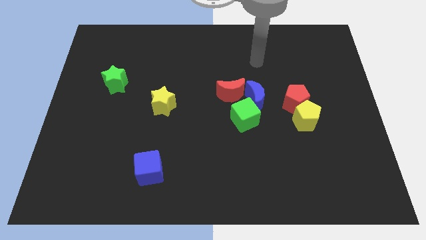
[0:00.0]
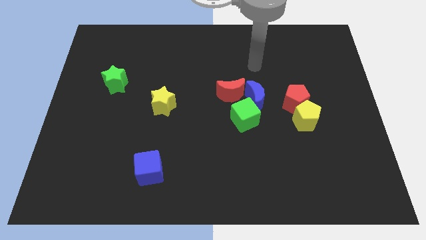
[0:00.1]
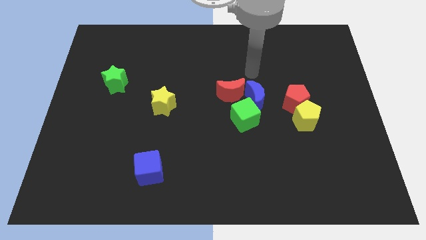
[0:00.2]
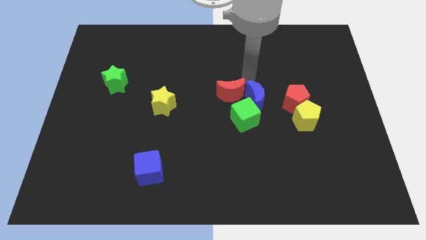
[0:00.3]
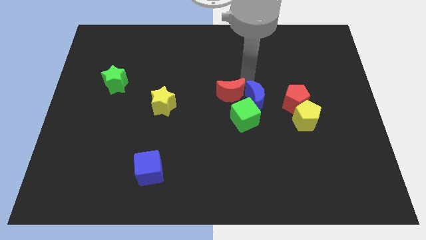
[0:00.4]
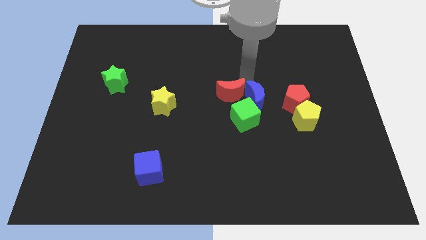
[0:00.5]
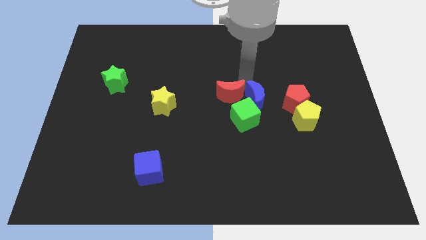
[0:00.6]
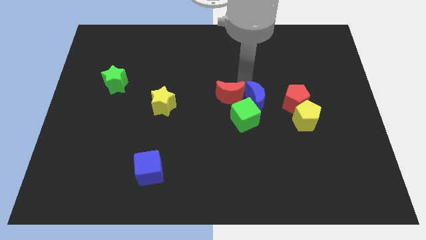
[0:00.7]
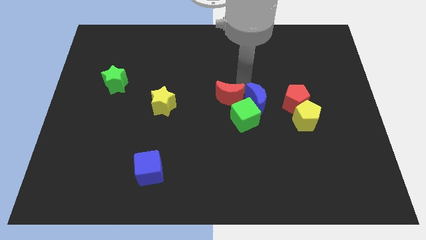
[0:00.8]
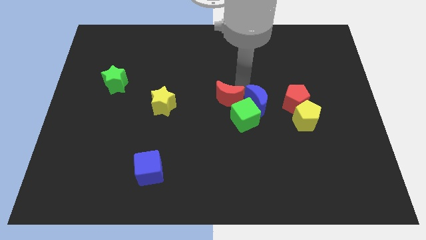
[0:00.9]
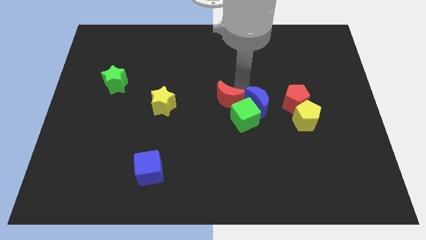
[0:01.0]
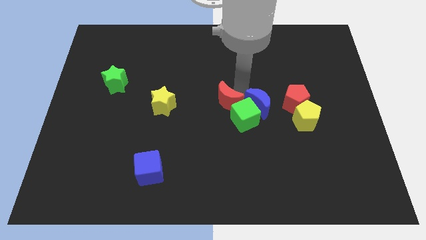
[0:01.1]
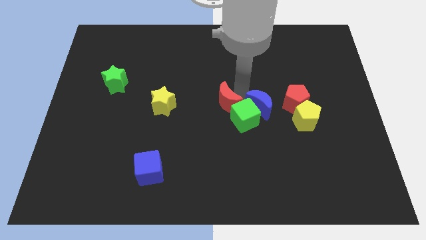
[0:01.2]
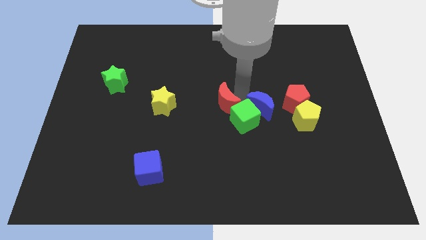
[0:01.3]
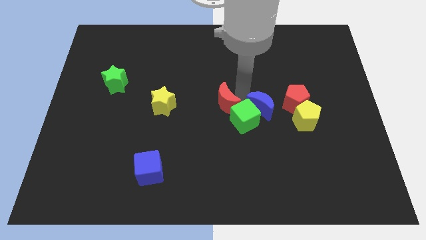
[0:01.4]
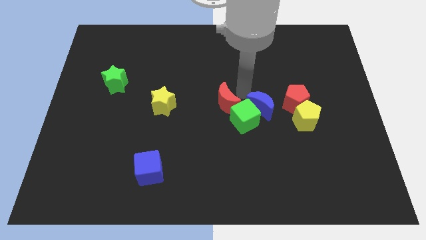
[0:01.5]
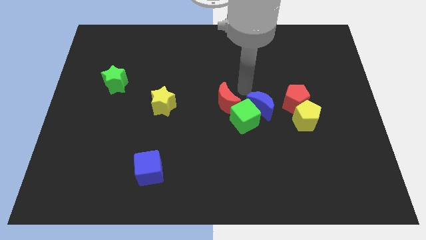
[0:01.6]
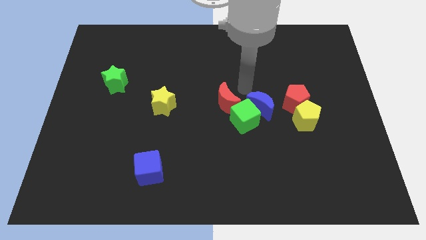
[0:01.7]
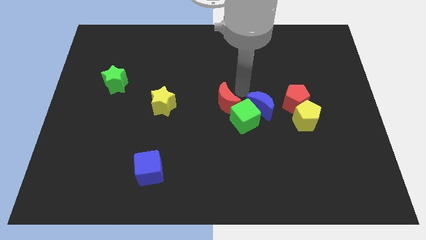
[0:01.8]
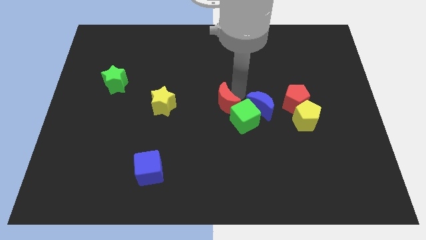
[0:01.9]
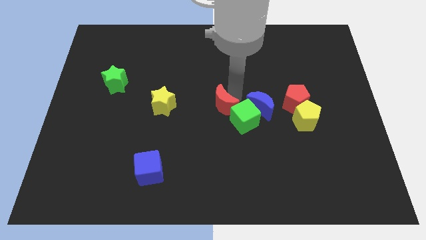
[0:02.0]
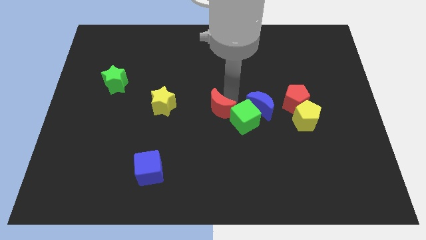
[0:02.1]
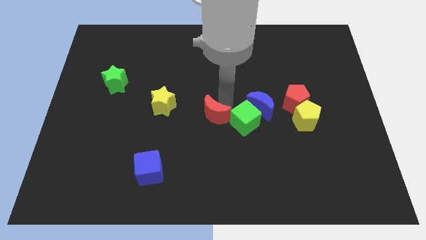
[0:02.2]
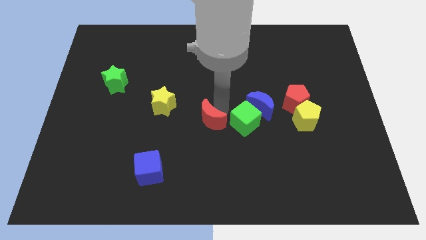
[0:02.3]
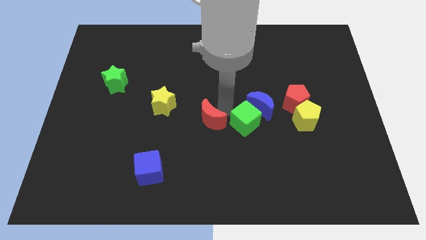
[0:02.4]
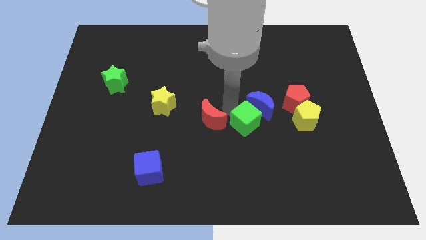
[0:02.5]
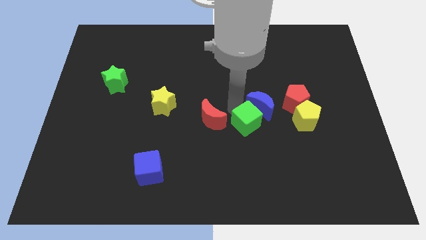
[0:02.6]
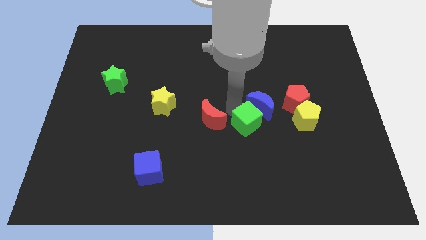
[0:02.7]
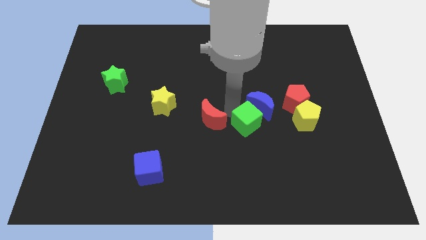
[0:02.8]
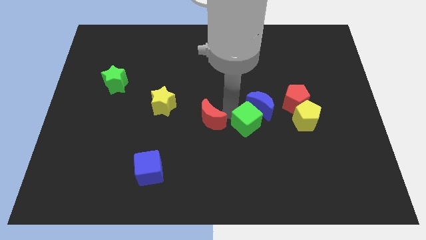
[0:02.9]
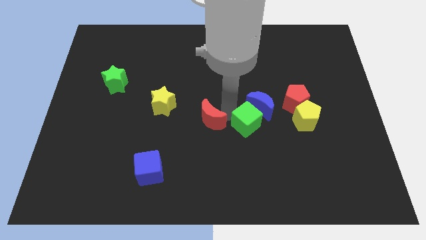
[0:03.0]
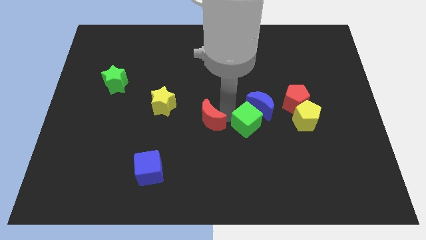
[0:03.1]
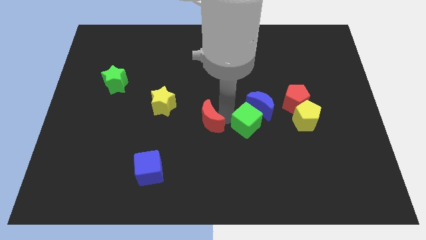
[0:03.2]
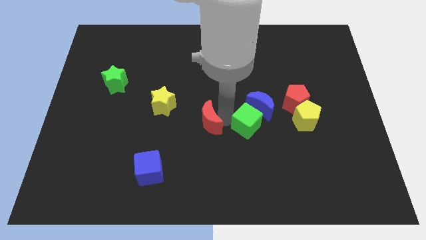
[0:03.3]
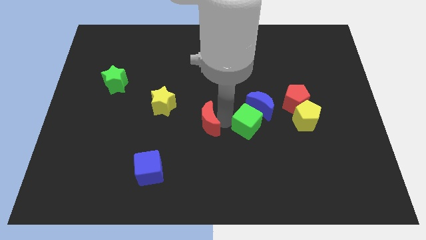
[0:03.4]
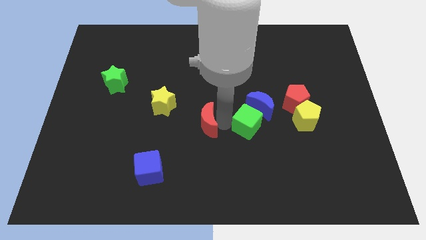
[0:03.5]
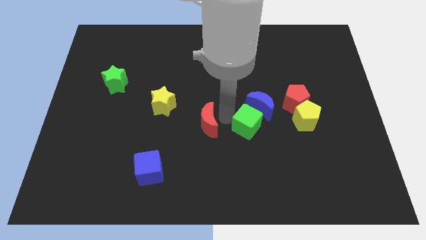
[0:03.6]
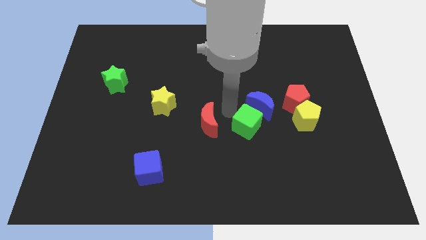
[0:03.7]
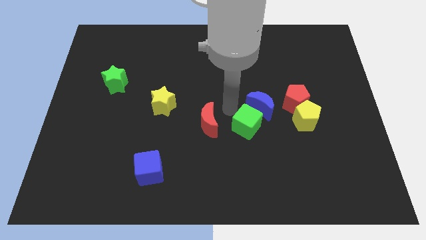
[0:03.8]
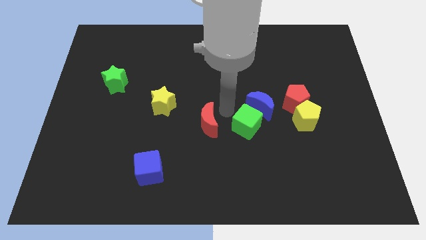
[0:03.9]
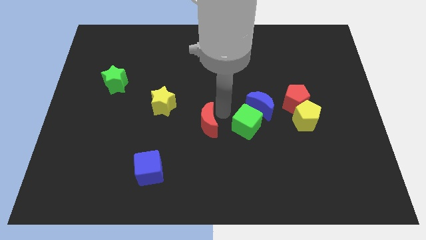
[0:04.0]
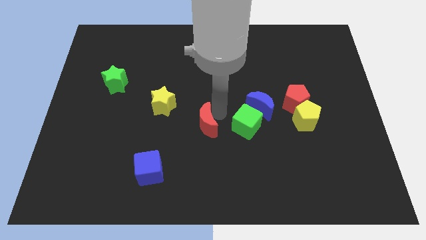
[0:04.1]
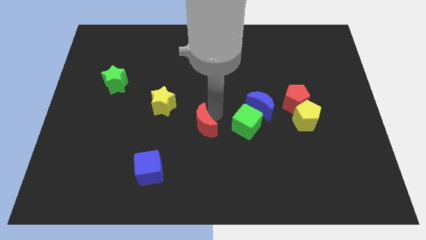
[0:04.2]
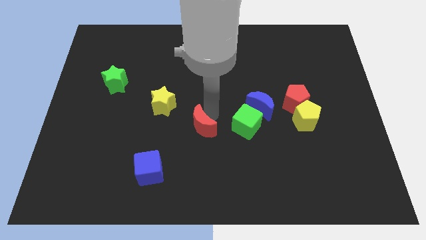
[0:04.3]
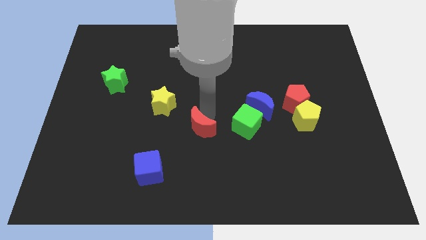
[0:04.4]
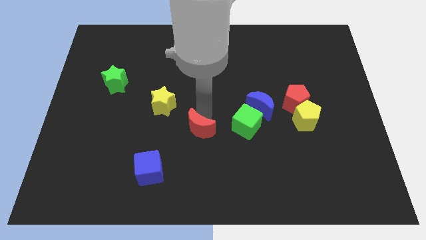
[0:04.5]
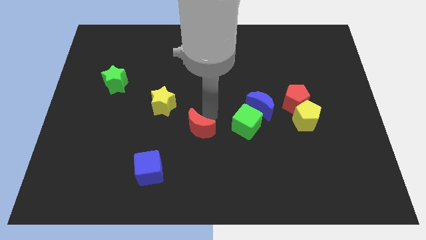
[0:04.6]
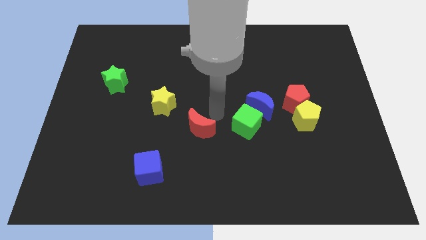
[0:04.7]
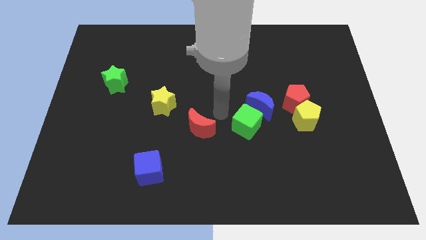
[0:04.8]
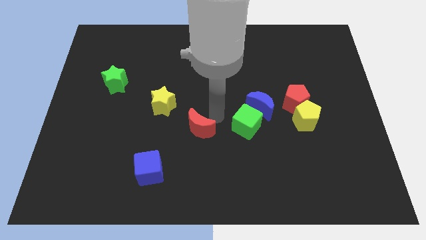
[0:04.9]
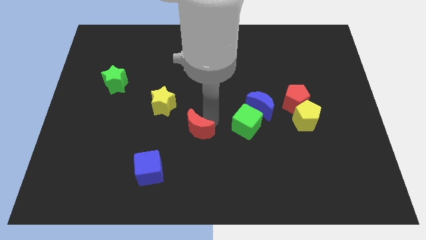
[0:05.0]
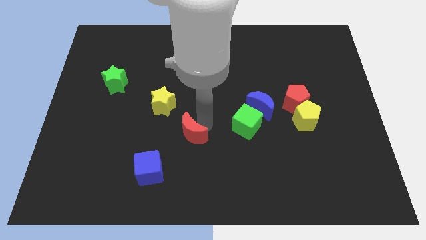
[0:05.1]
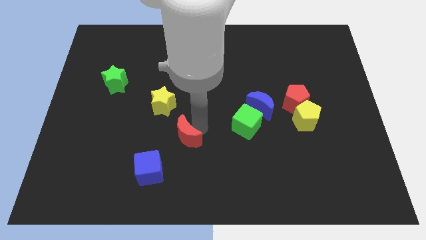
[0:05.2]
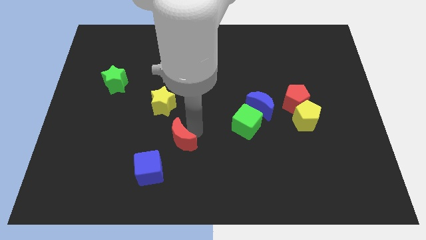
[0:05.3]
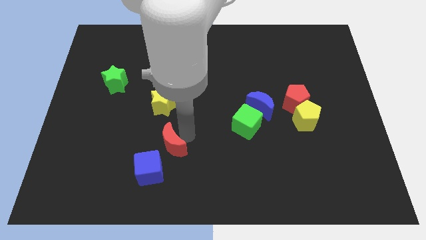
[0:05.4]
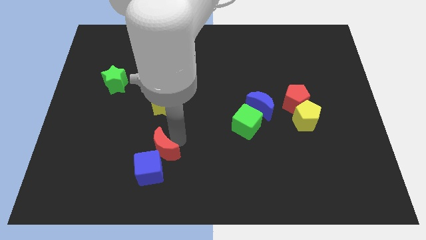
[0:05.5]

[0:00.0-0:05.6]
push the red moon next to the blue cube

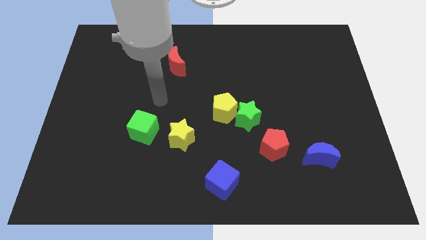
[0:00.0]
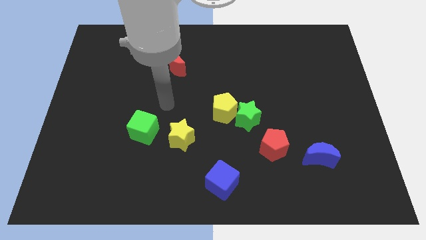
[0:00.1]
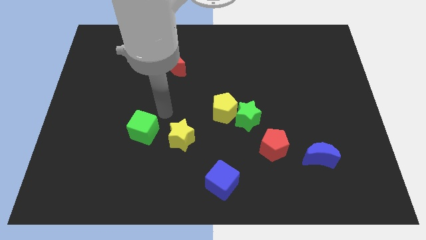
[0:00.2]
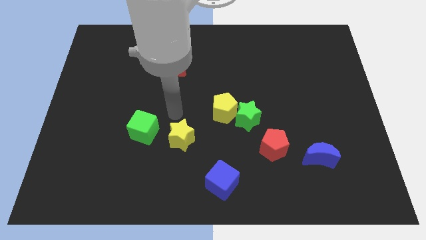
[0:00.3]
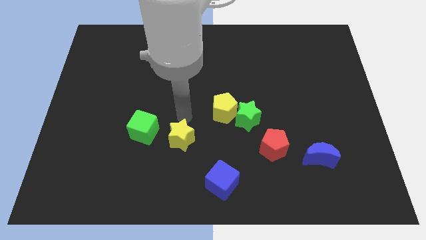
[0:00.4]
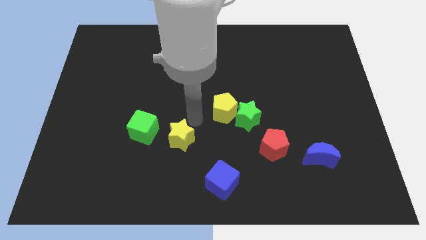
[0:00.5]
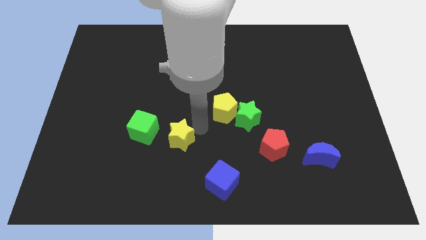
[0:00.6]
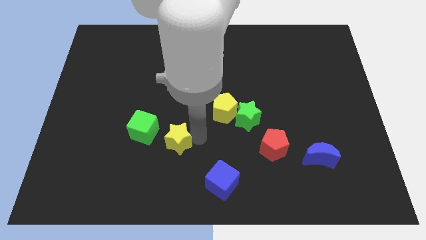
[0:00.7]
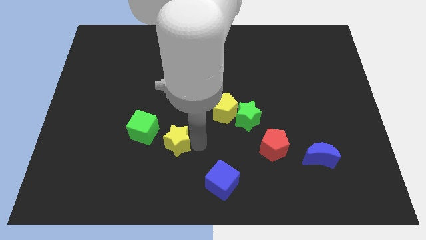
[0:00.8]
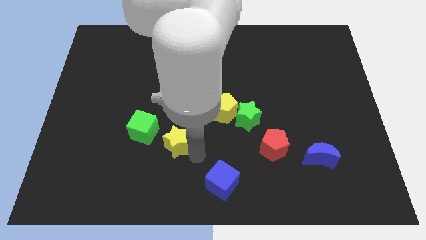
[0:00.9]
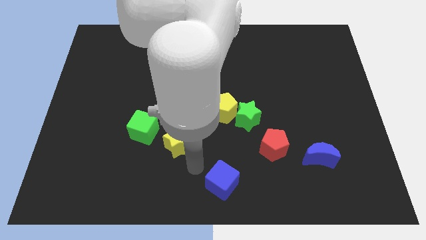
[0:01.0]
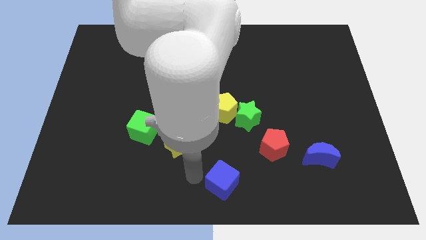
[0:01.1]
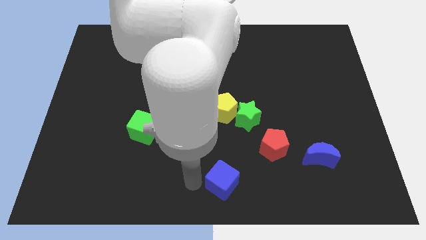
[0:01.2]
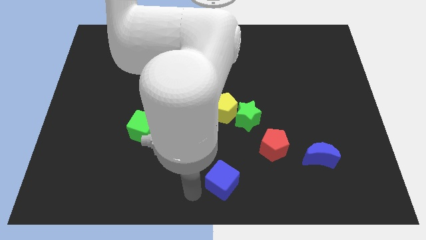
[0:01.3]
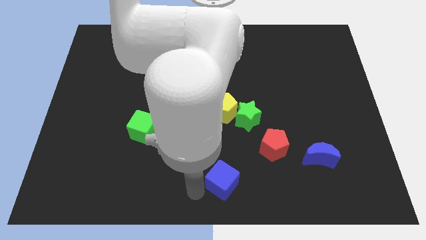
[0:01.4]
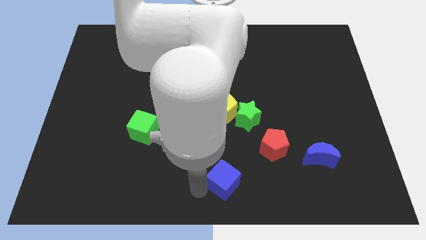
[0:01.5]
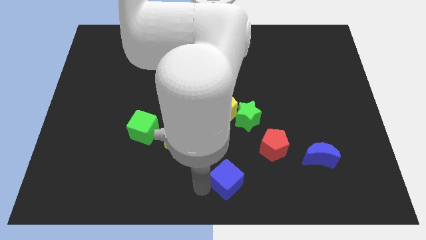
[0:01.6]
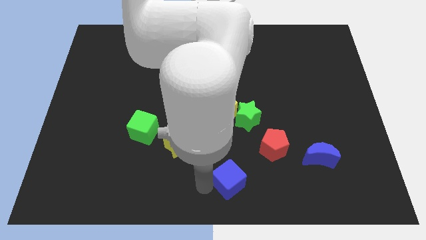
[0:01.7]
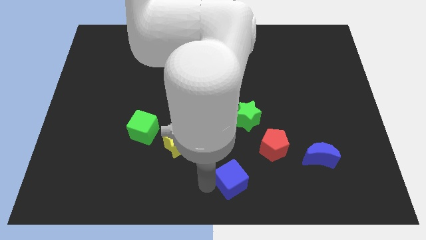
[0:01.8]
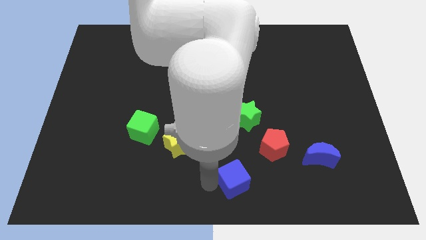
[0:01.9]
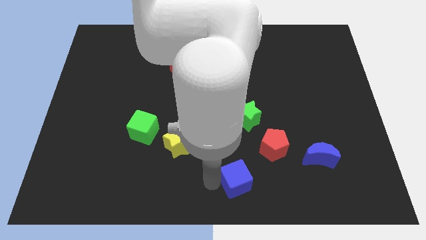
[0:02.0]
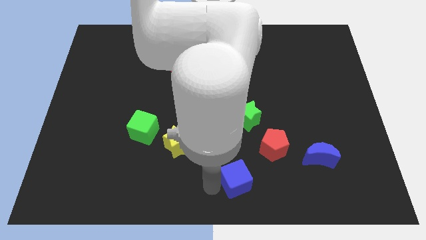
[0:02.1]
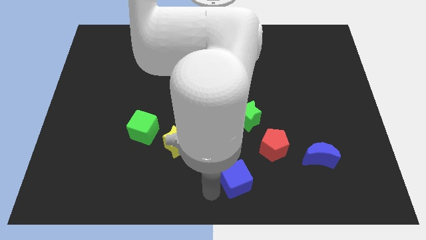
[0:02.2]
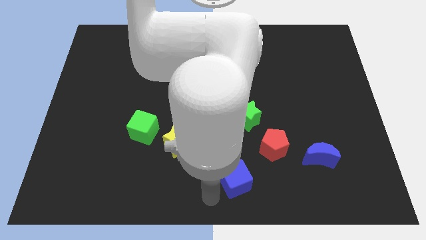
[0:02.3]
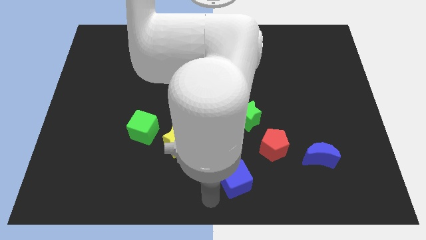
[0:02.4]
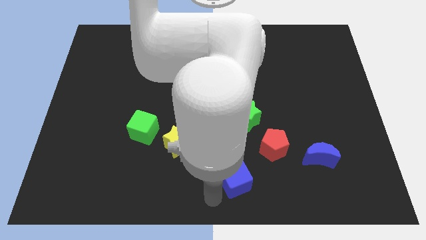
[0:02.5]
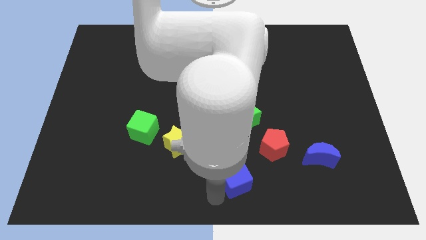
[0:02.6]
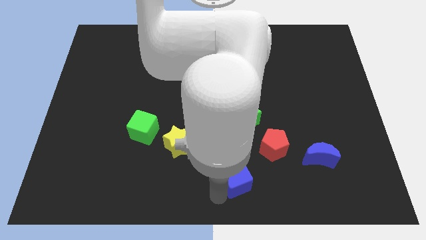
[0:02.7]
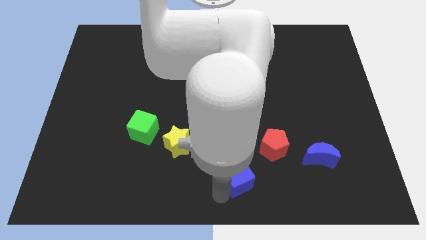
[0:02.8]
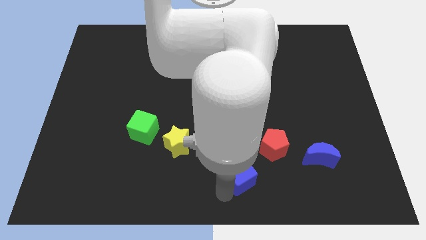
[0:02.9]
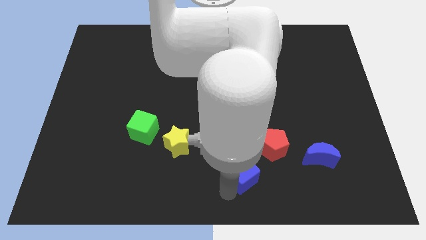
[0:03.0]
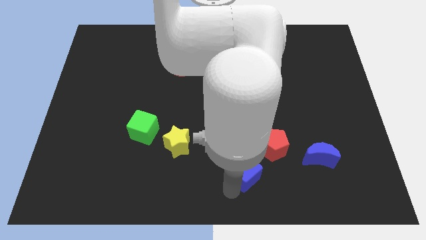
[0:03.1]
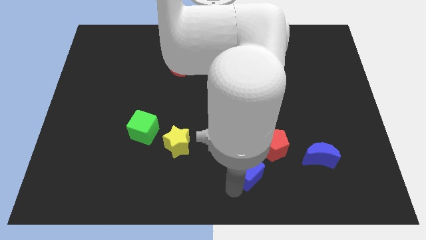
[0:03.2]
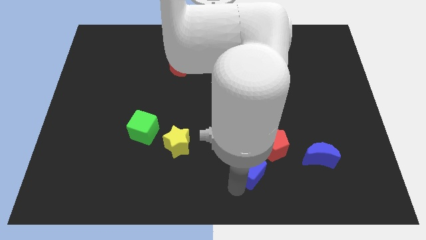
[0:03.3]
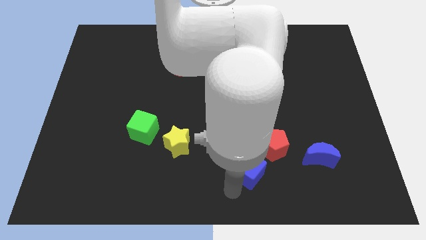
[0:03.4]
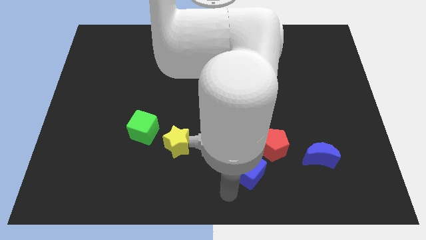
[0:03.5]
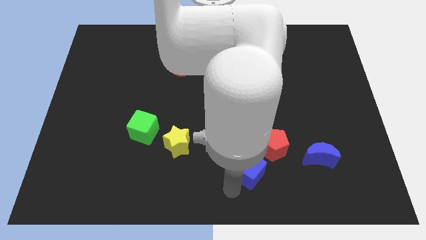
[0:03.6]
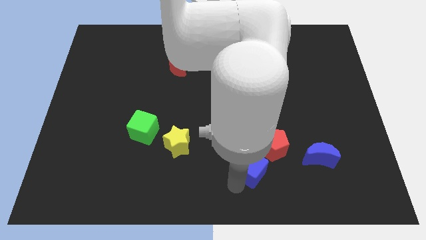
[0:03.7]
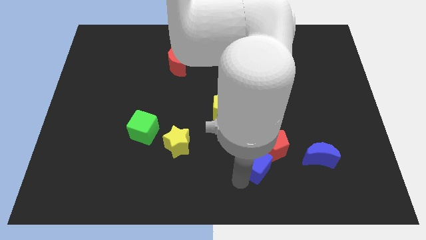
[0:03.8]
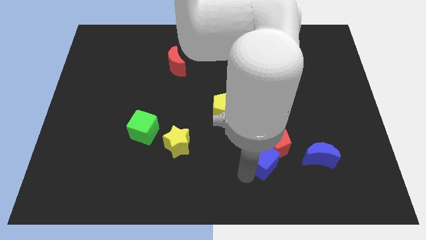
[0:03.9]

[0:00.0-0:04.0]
put the blue cube close to the red pentagon
